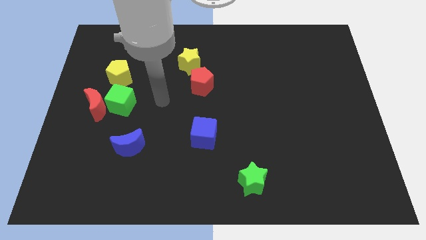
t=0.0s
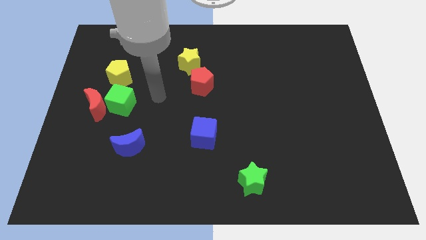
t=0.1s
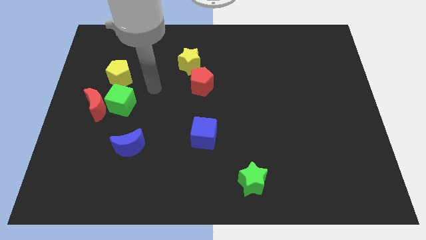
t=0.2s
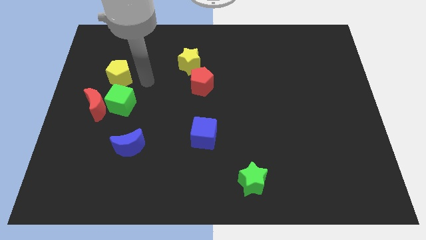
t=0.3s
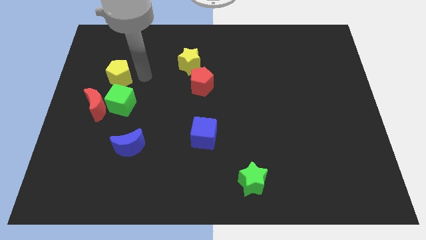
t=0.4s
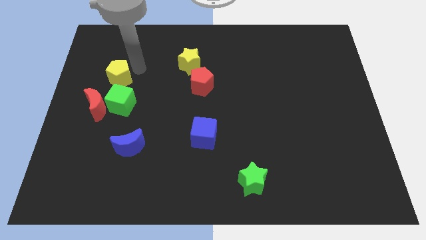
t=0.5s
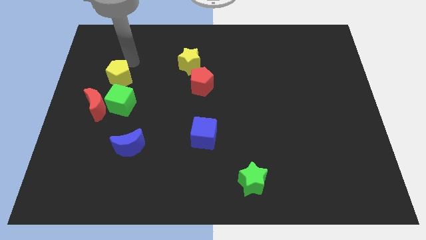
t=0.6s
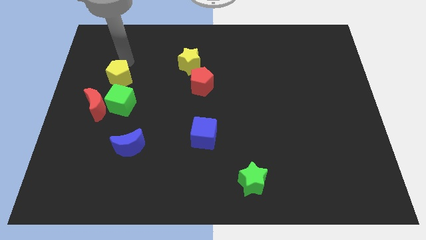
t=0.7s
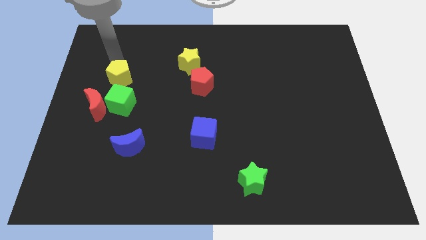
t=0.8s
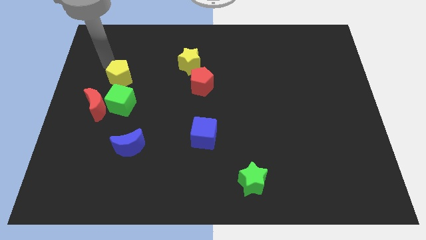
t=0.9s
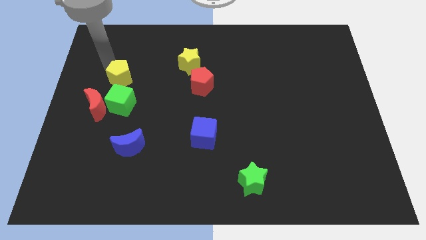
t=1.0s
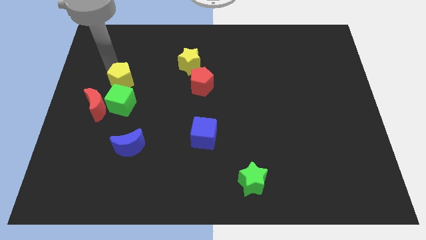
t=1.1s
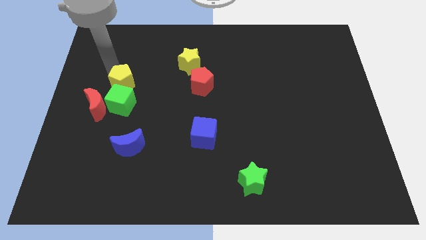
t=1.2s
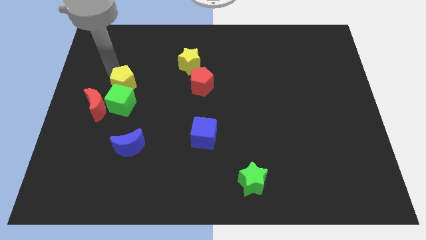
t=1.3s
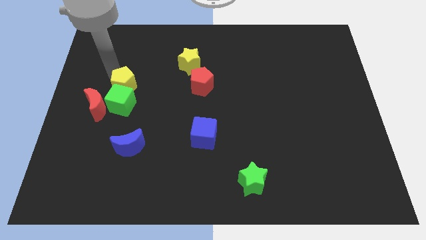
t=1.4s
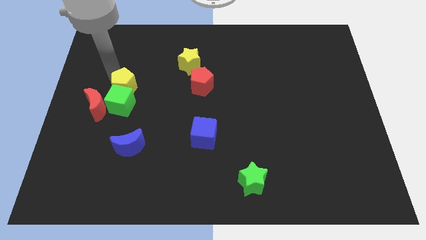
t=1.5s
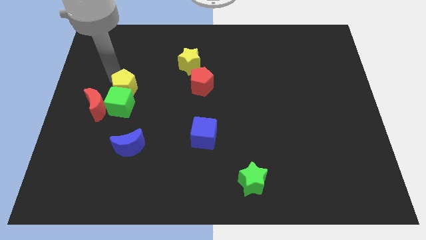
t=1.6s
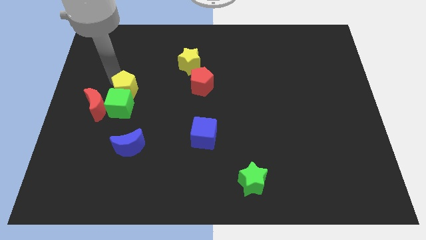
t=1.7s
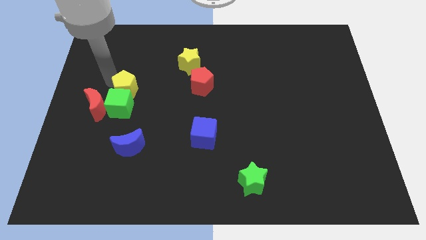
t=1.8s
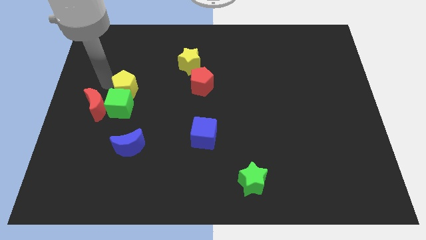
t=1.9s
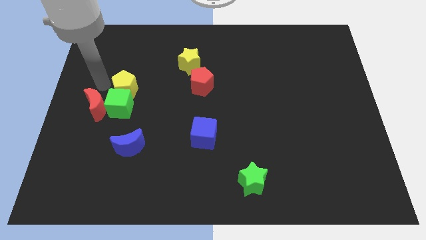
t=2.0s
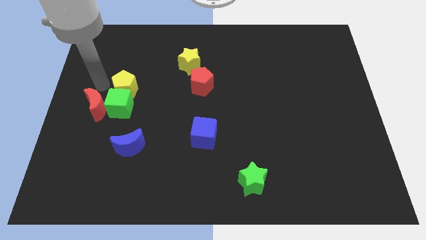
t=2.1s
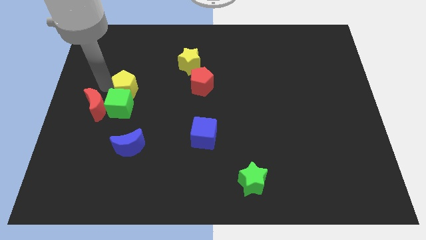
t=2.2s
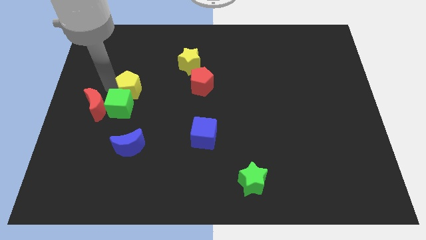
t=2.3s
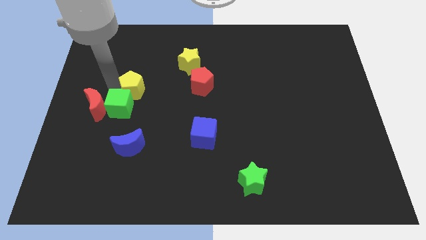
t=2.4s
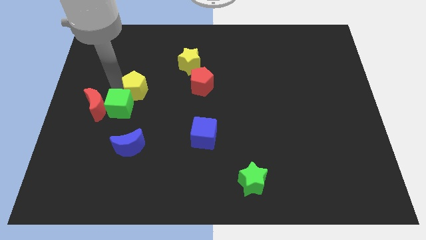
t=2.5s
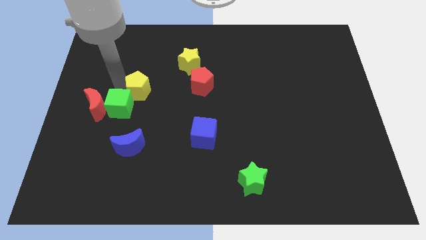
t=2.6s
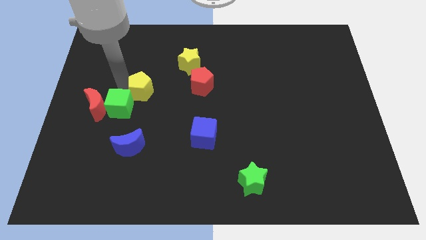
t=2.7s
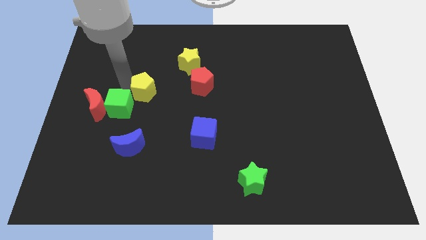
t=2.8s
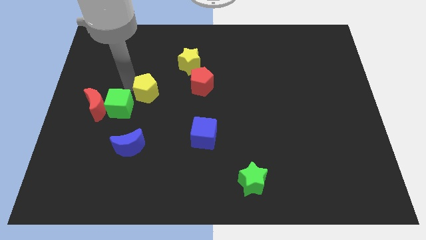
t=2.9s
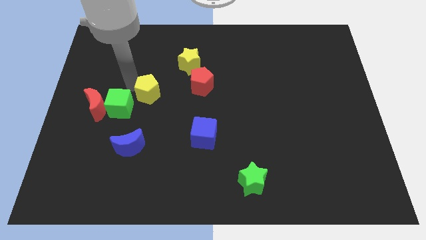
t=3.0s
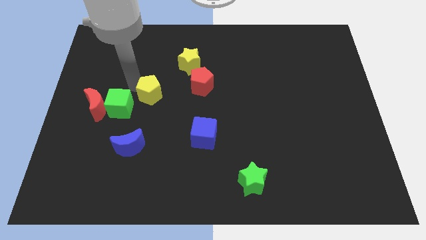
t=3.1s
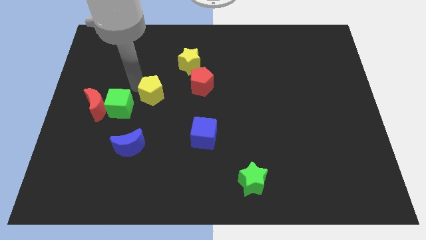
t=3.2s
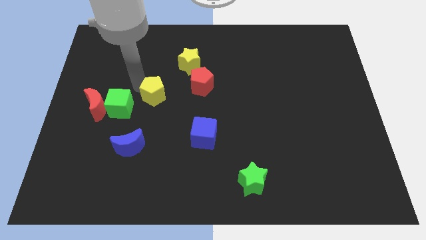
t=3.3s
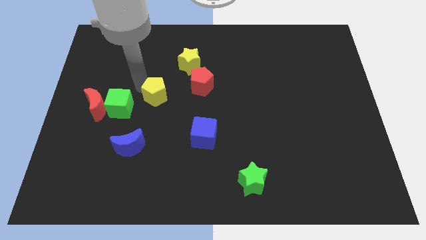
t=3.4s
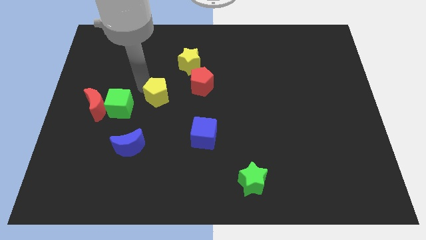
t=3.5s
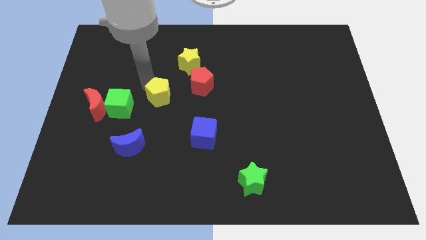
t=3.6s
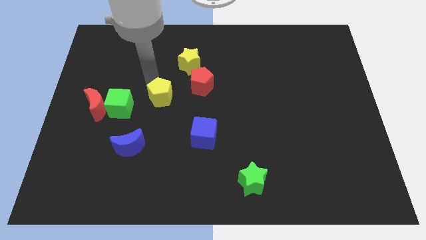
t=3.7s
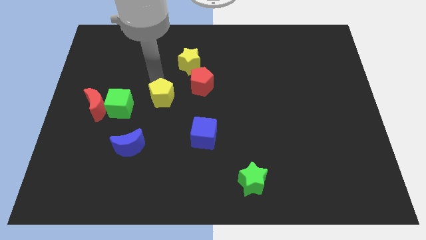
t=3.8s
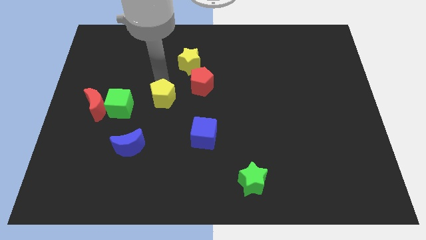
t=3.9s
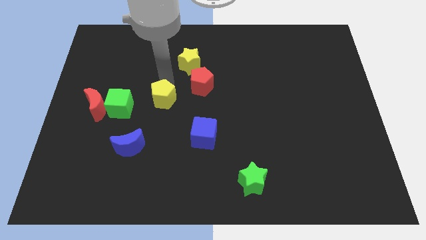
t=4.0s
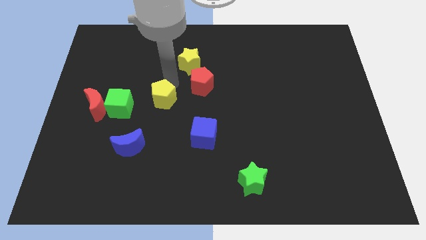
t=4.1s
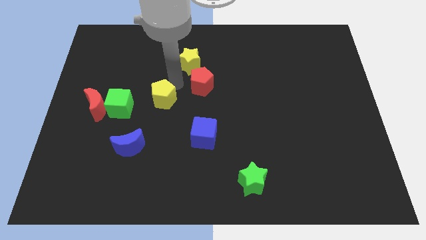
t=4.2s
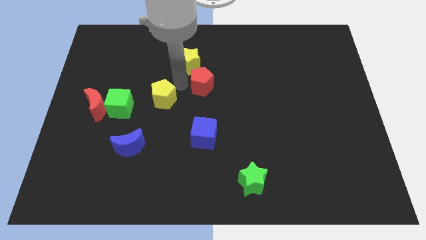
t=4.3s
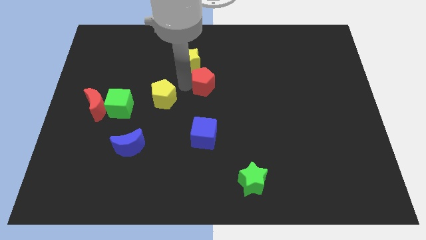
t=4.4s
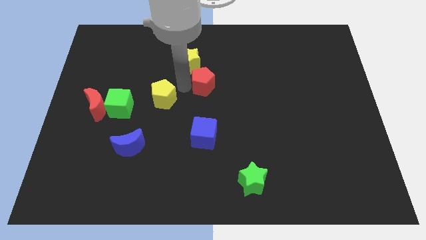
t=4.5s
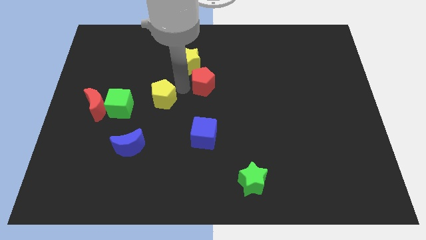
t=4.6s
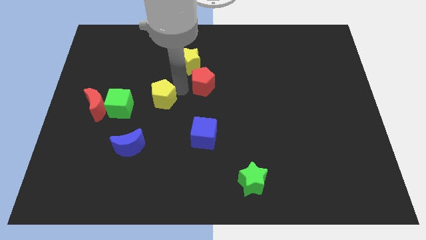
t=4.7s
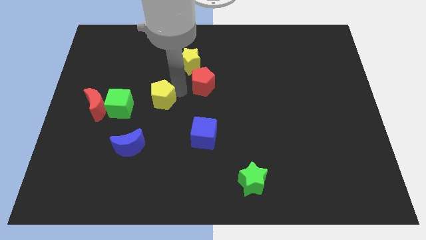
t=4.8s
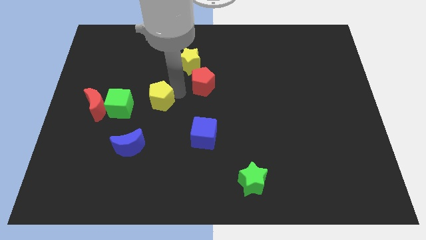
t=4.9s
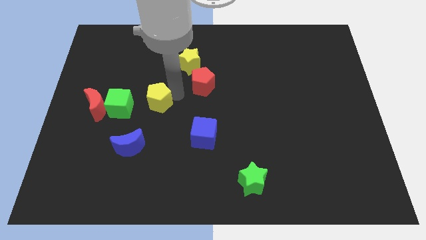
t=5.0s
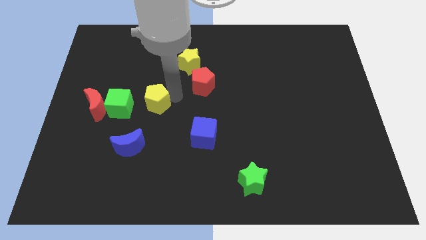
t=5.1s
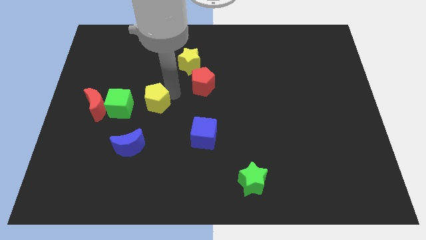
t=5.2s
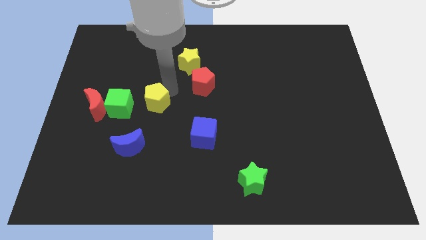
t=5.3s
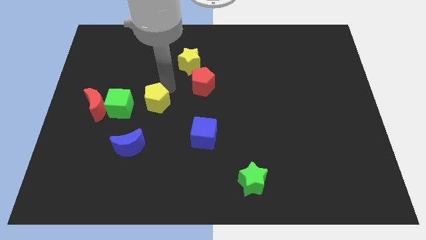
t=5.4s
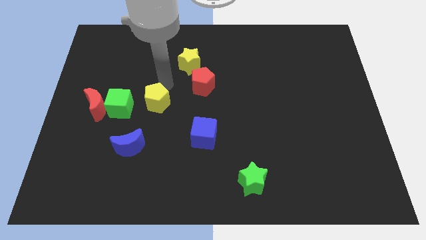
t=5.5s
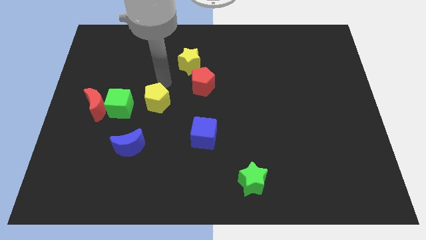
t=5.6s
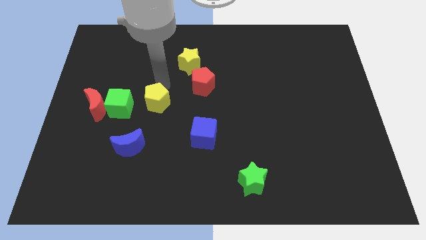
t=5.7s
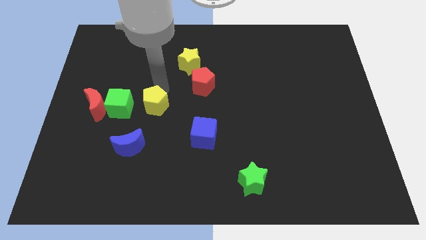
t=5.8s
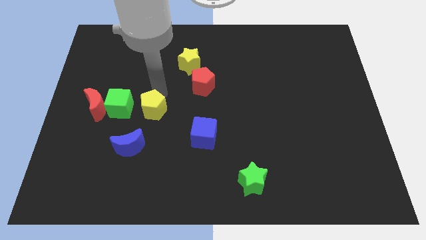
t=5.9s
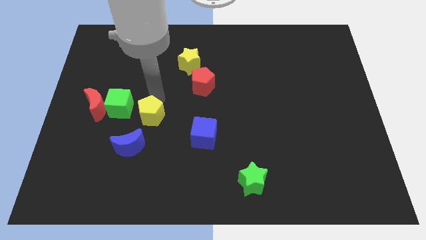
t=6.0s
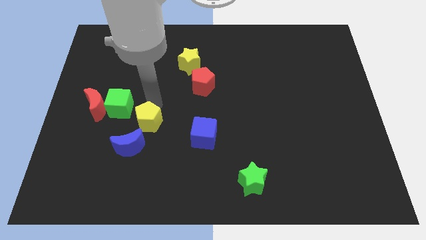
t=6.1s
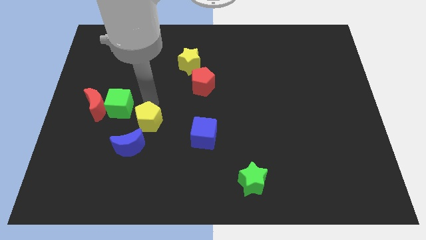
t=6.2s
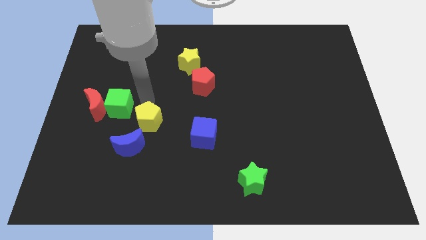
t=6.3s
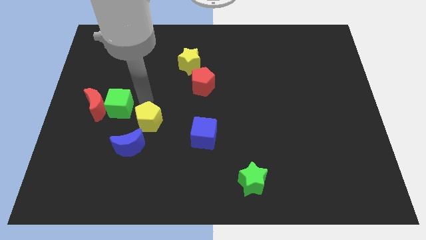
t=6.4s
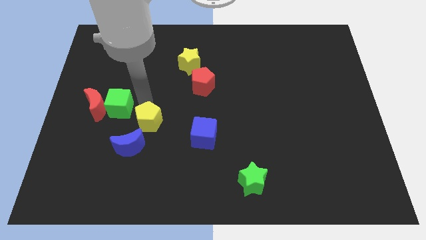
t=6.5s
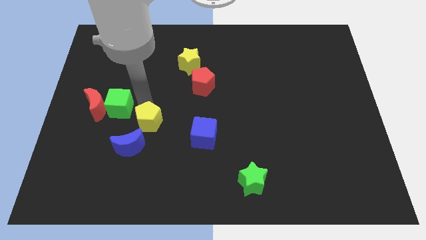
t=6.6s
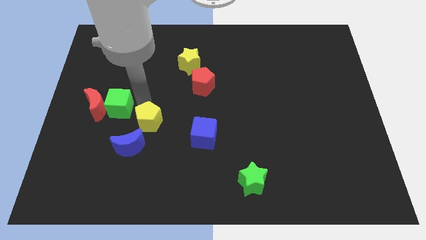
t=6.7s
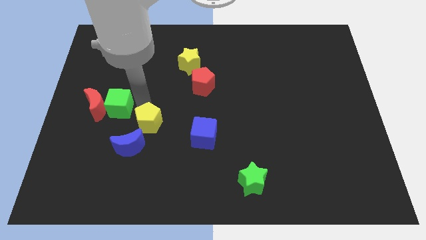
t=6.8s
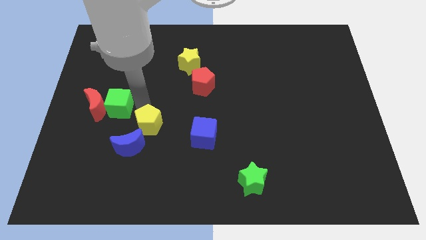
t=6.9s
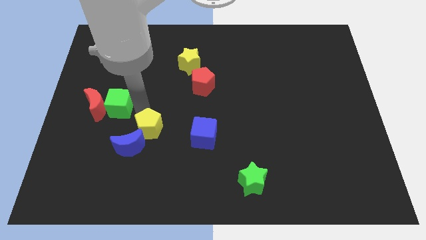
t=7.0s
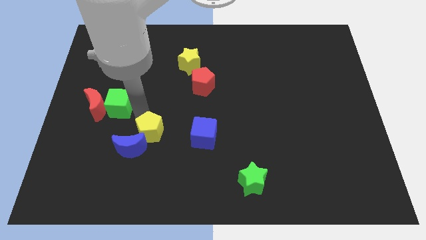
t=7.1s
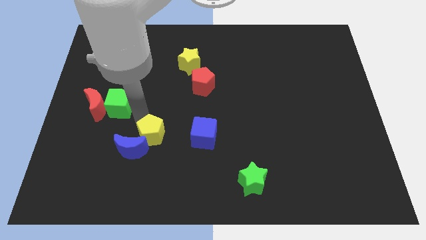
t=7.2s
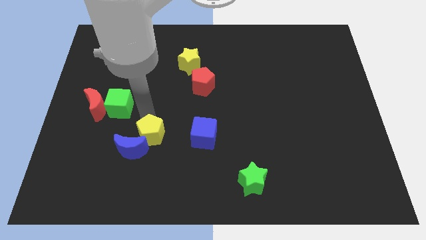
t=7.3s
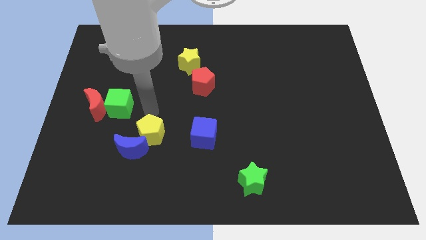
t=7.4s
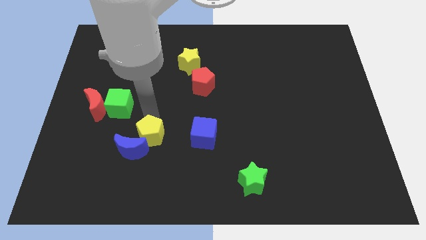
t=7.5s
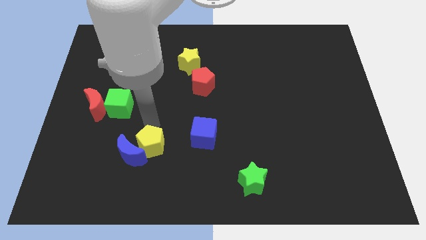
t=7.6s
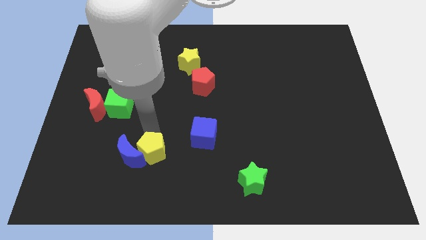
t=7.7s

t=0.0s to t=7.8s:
put the yellow pentagon to the bottom right side of the blue moon
